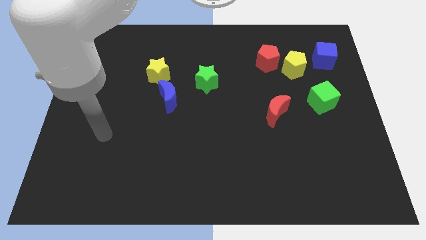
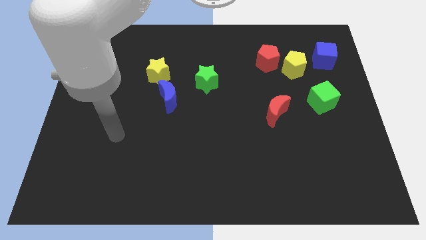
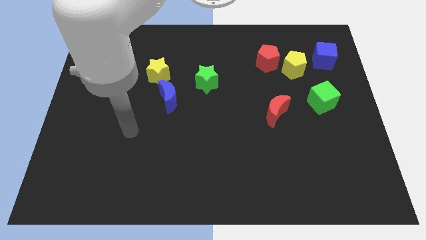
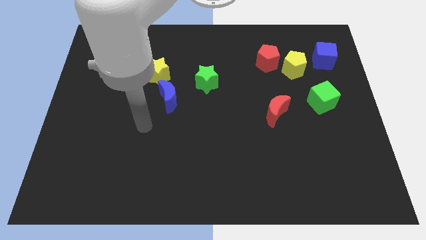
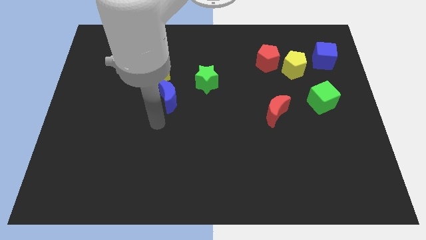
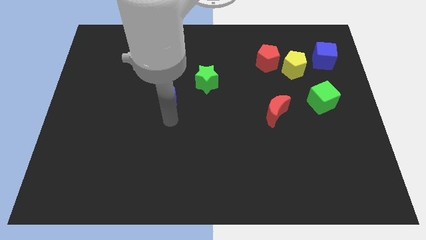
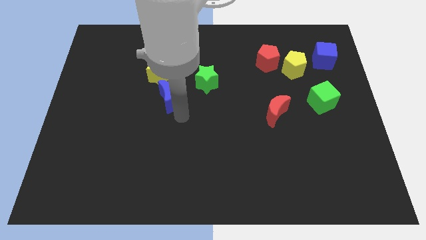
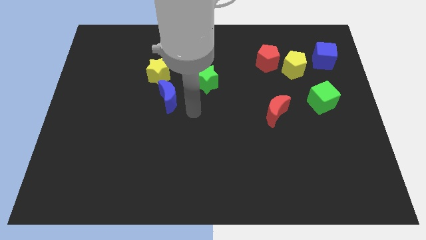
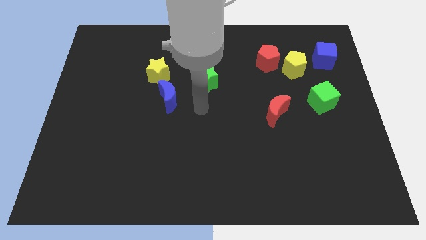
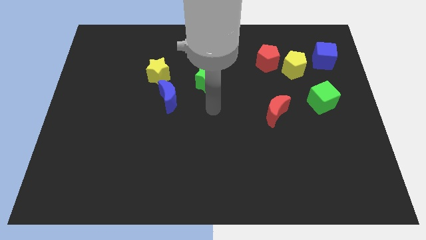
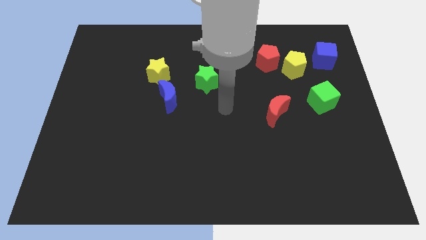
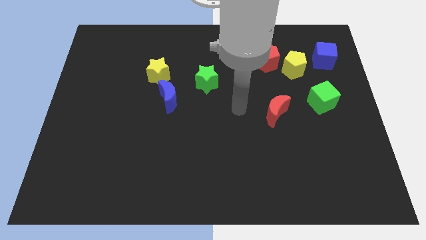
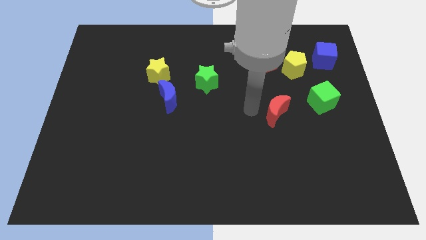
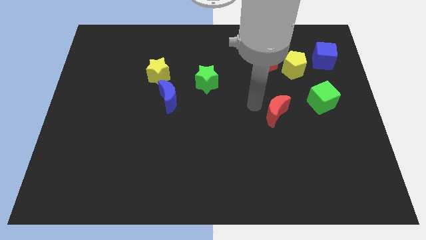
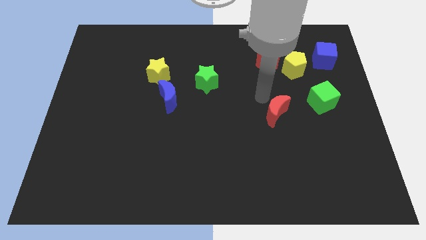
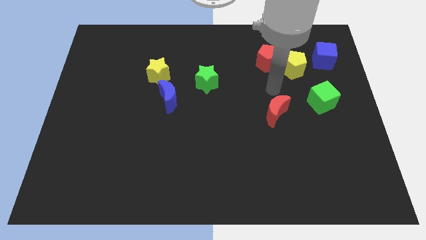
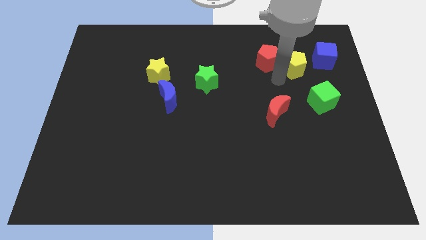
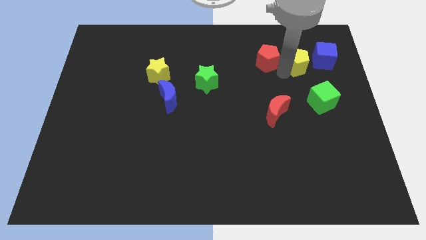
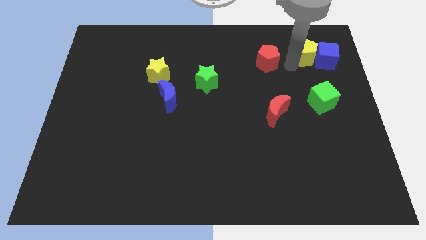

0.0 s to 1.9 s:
separate the red pentagon from the yellow pentagon

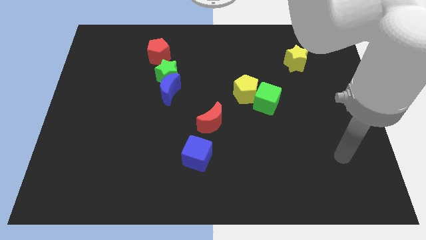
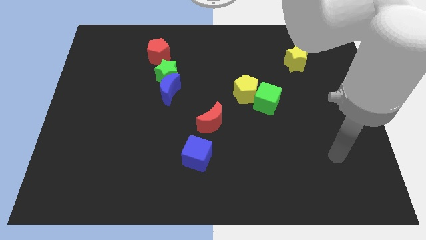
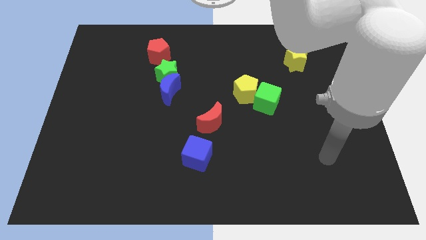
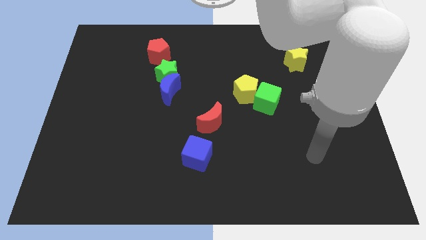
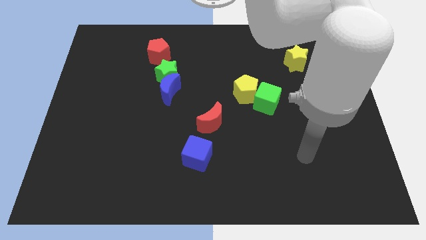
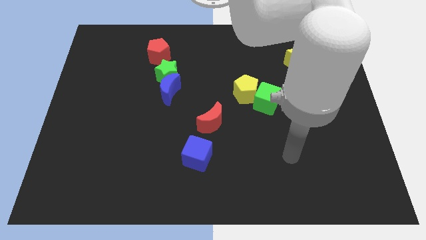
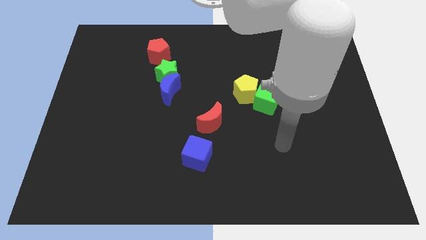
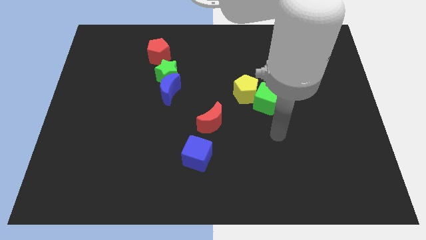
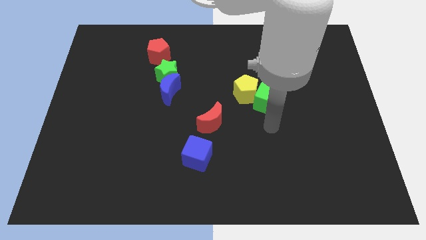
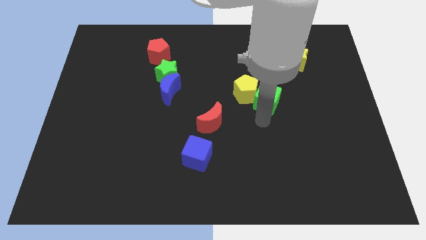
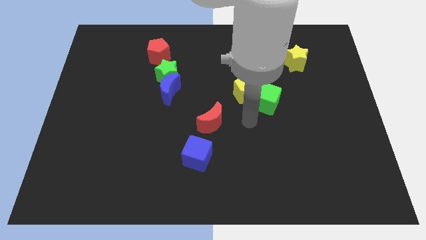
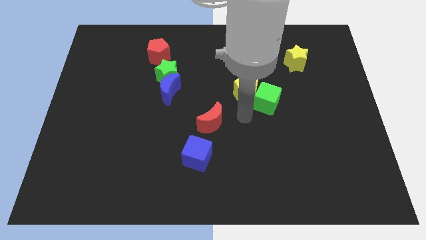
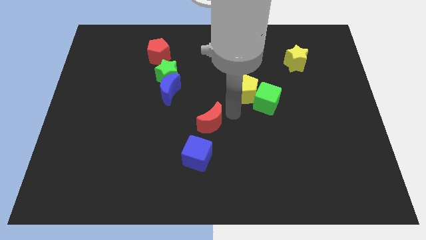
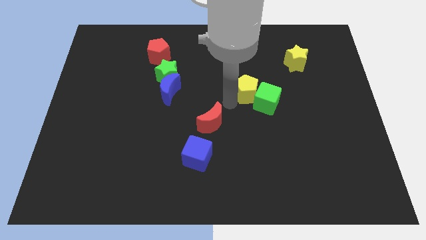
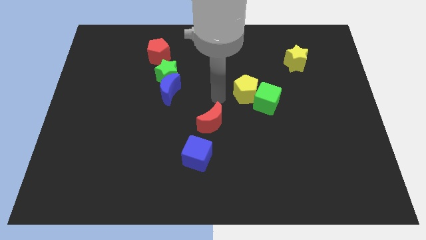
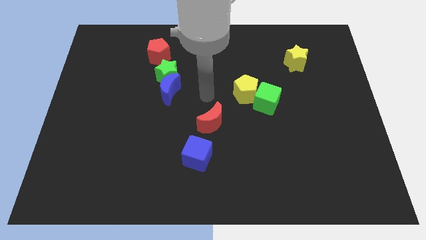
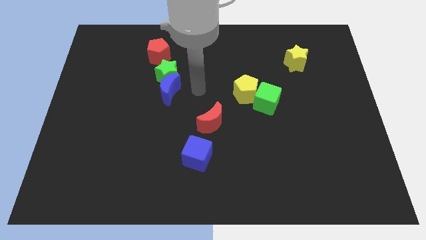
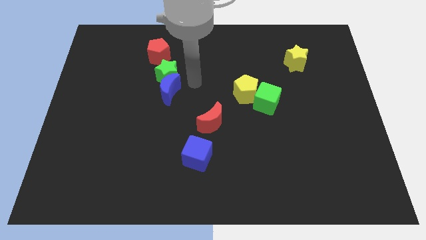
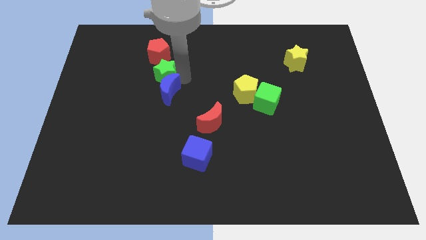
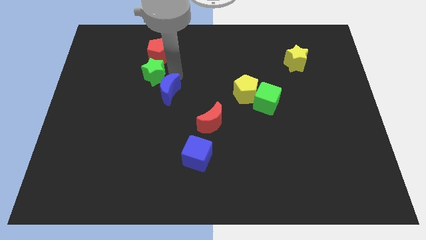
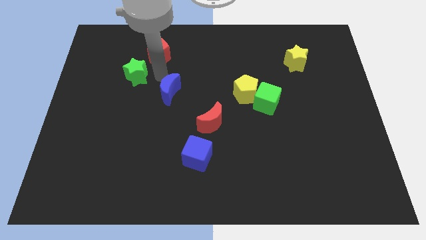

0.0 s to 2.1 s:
separate the blue moon from the green star

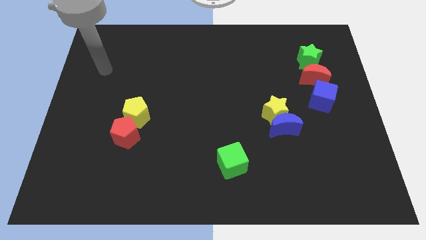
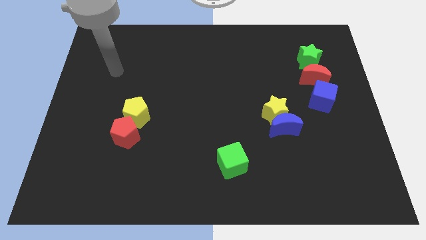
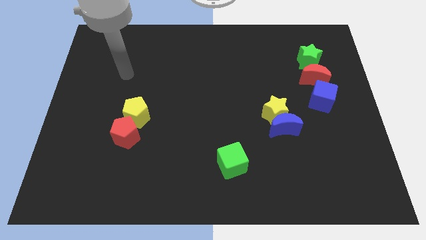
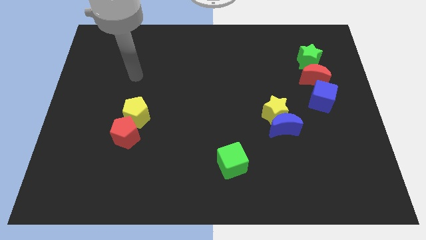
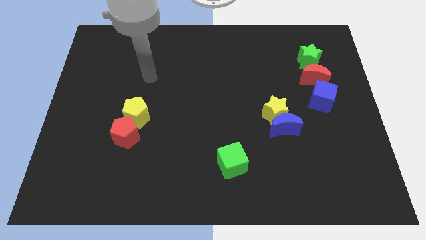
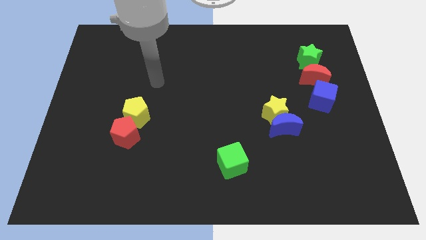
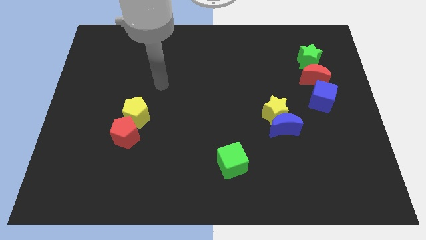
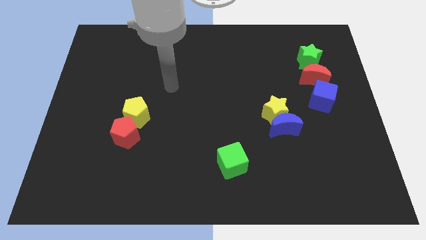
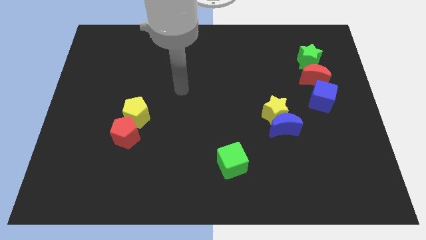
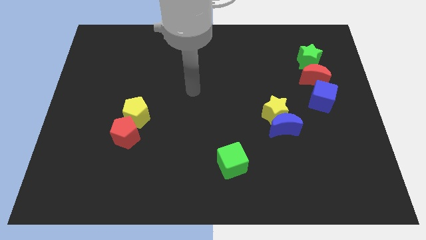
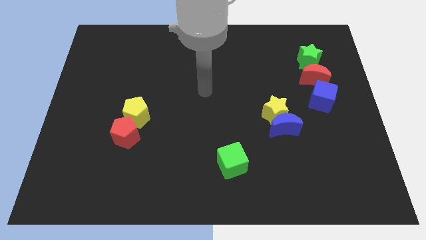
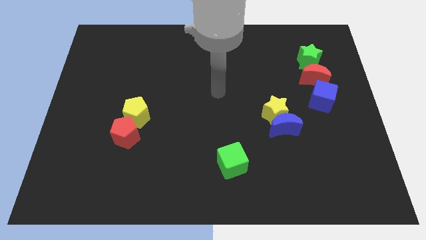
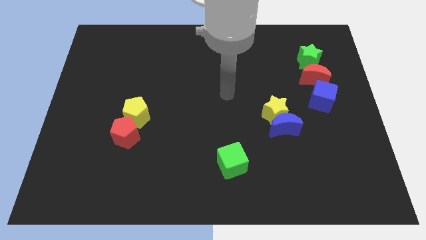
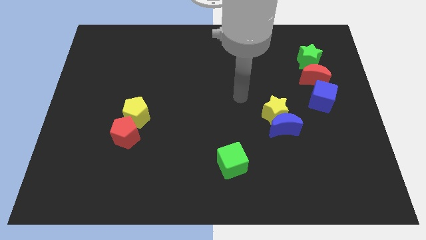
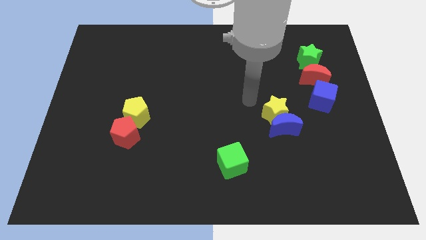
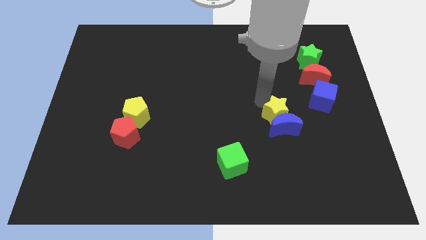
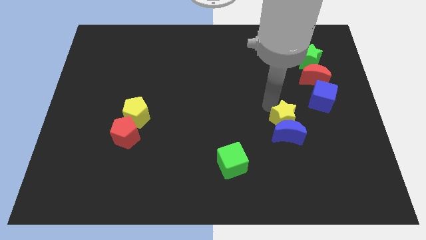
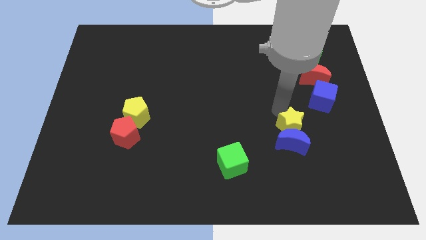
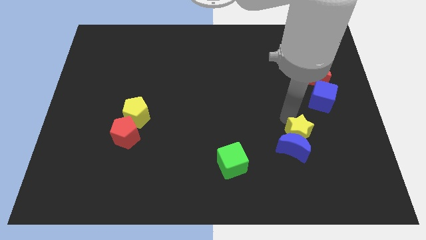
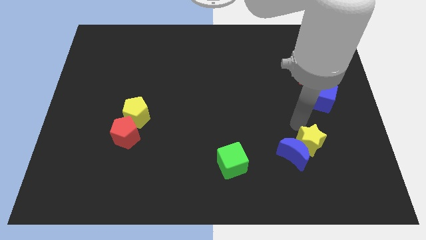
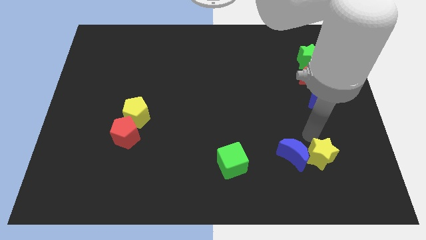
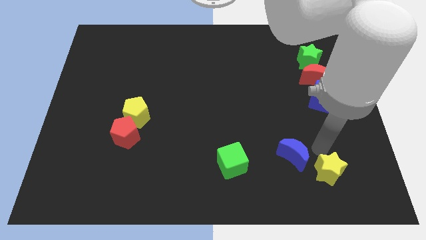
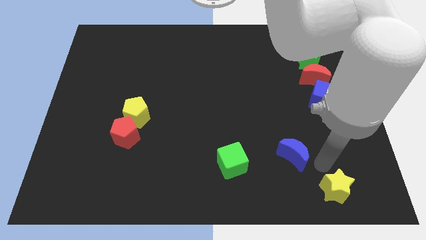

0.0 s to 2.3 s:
pull the blue moon apart from the yellow star

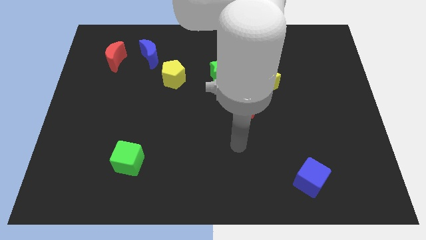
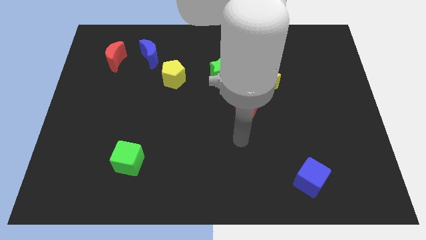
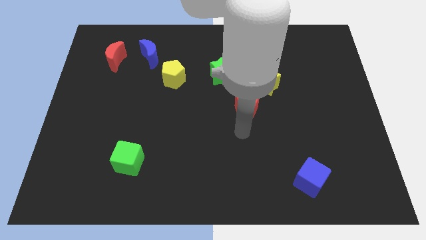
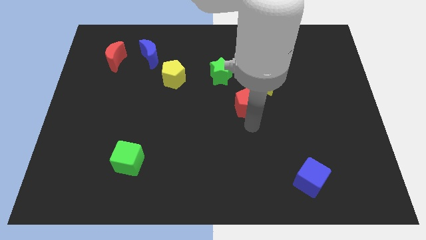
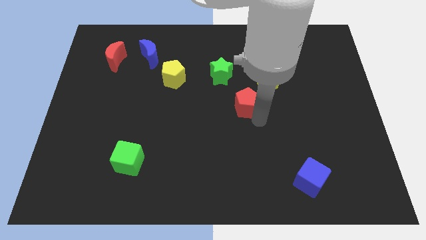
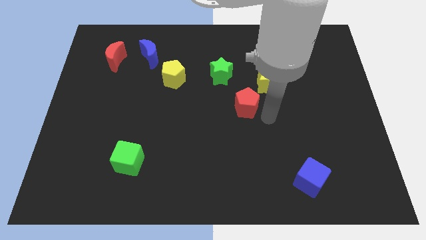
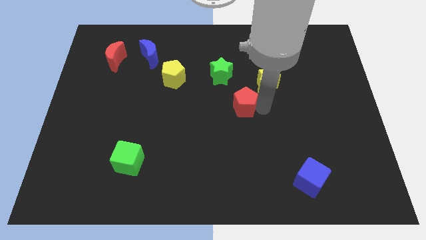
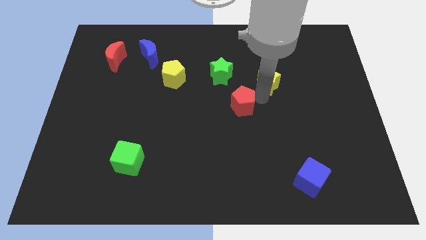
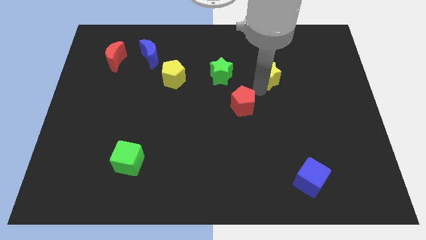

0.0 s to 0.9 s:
separate the red pentagon from the yellow star

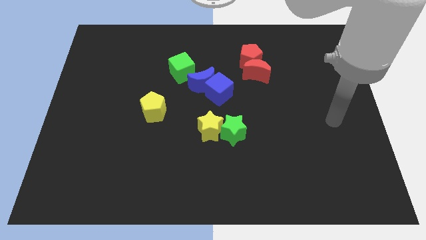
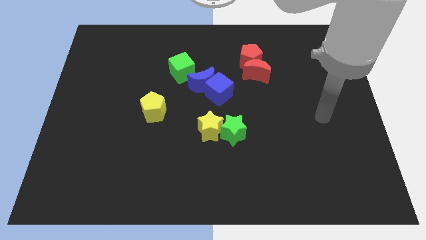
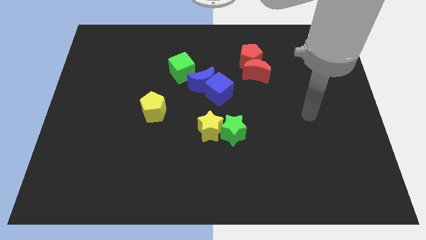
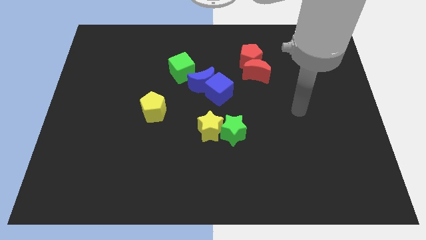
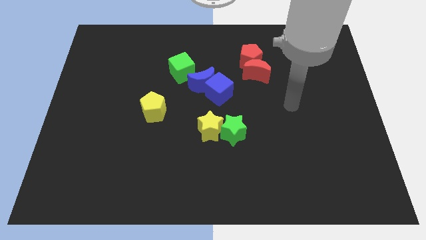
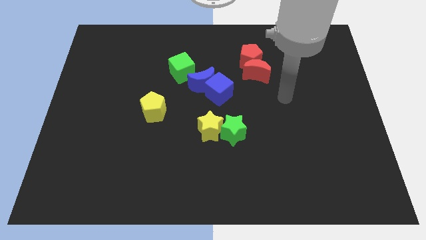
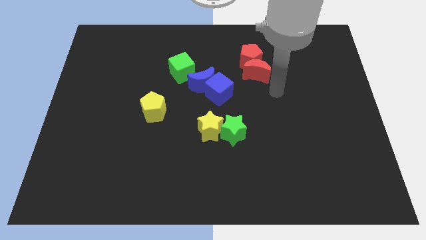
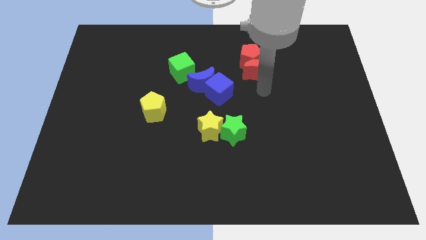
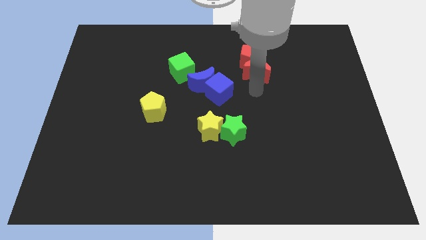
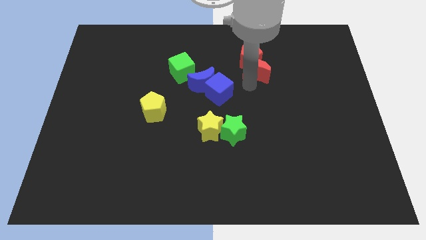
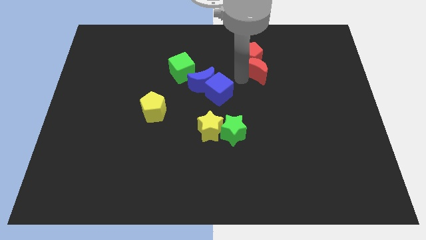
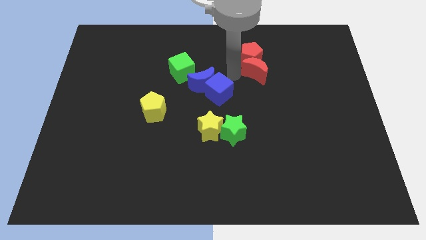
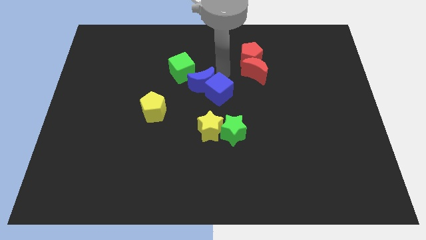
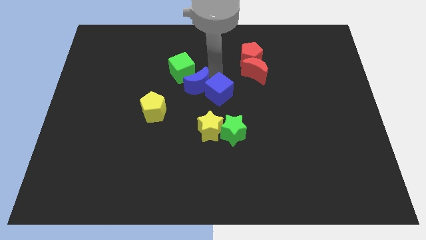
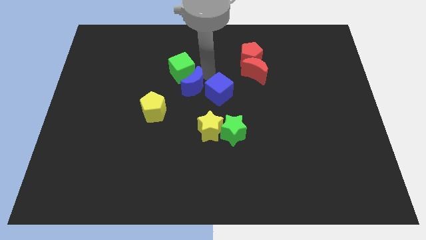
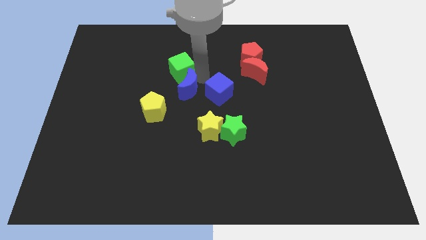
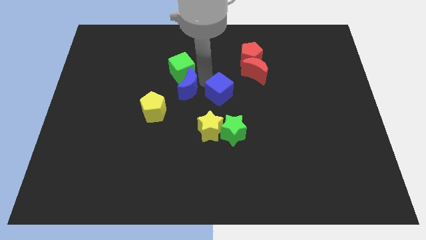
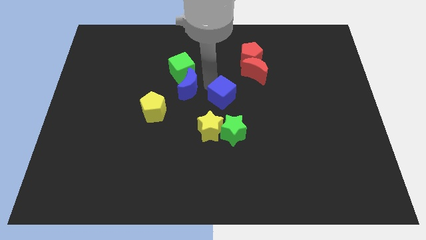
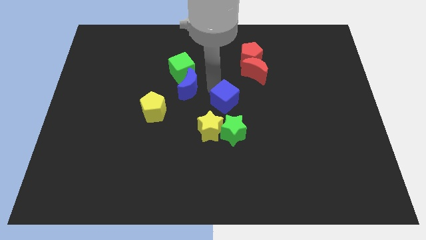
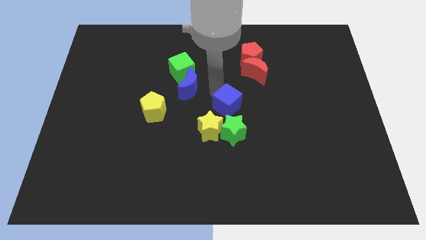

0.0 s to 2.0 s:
separate the blue cube from the blue moon
